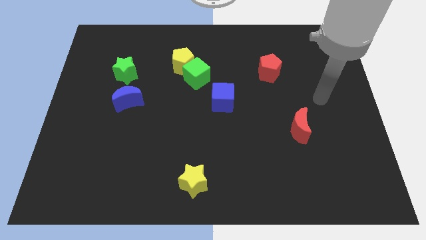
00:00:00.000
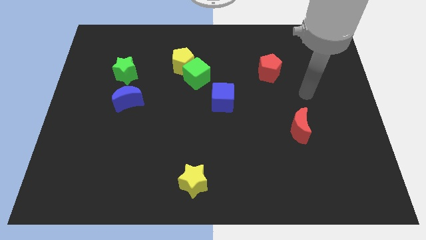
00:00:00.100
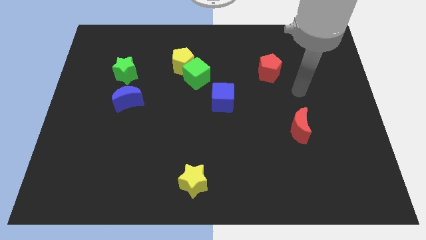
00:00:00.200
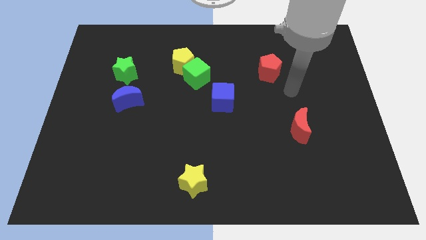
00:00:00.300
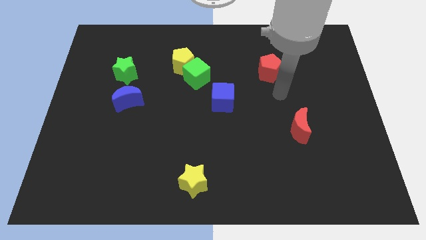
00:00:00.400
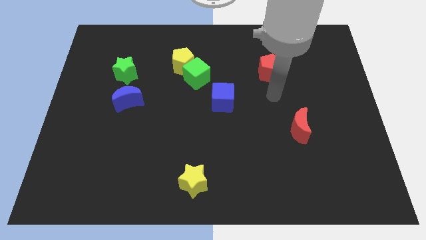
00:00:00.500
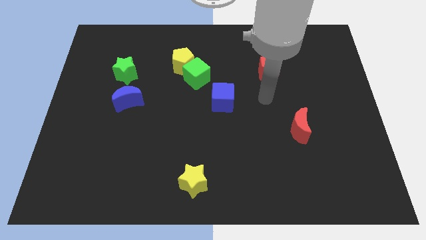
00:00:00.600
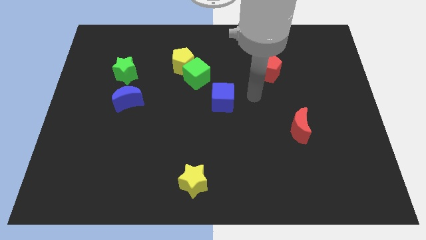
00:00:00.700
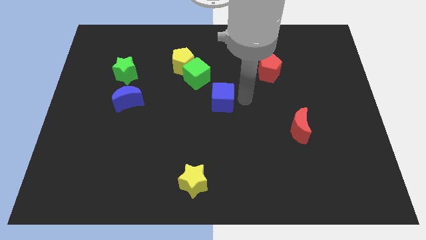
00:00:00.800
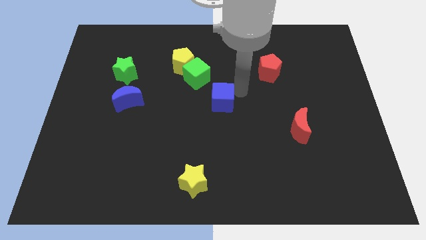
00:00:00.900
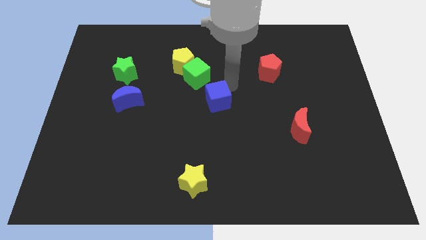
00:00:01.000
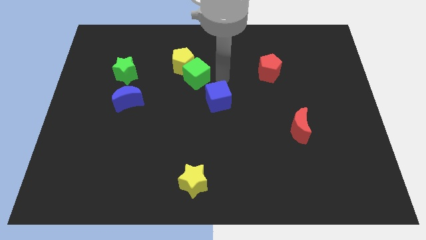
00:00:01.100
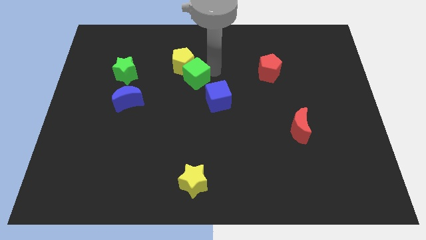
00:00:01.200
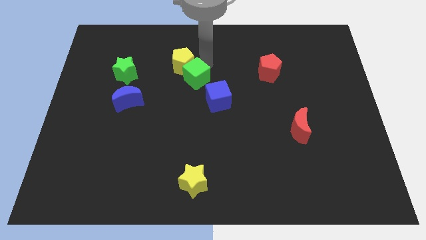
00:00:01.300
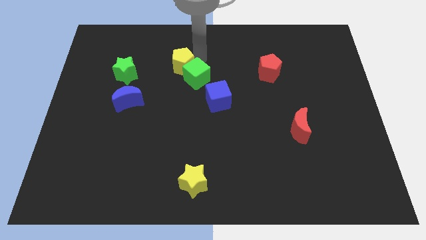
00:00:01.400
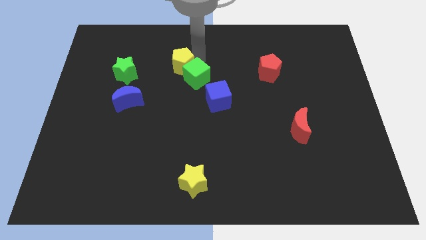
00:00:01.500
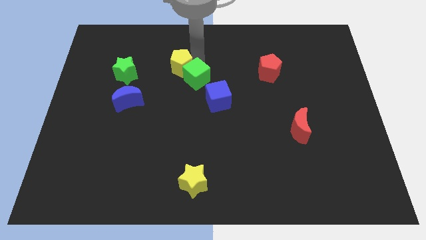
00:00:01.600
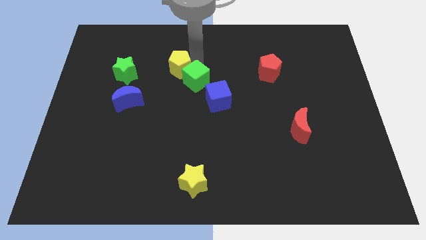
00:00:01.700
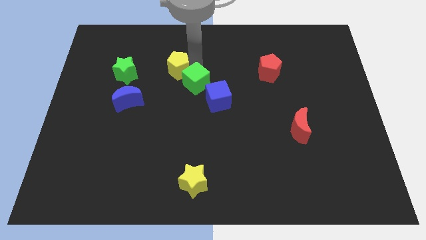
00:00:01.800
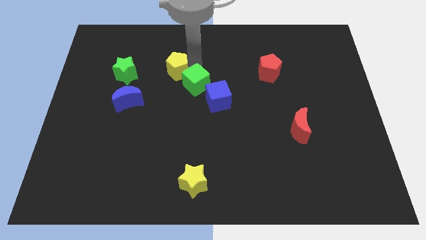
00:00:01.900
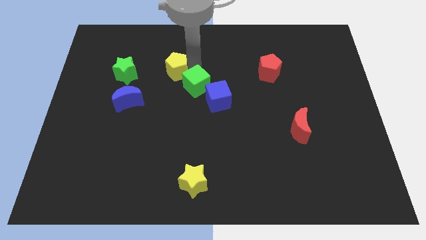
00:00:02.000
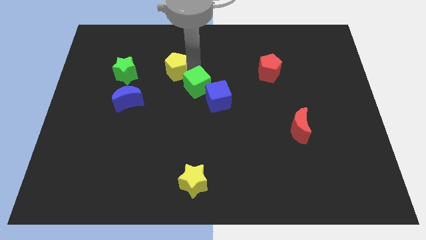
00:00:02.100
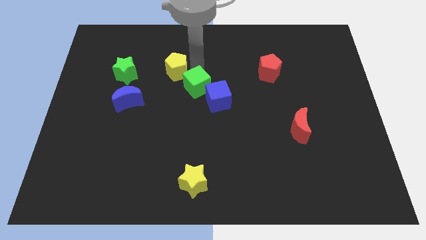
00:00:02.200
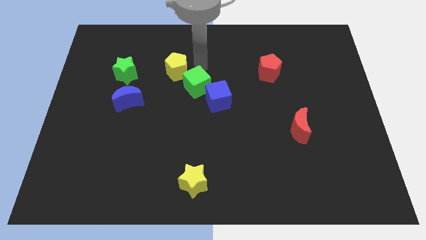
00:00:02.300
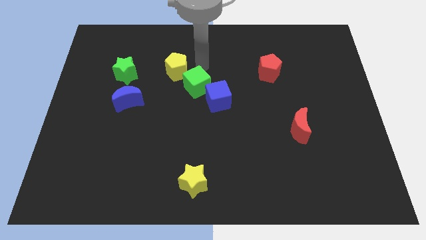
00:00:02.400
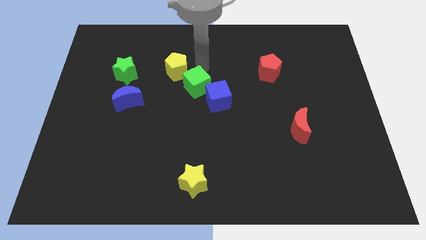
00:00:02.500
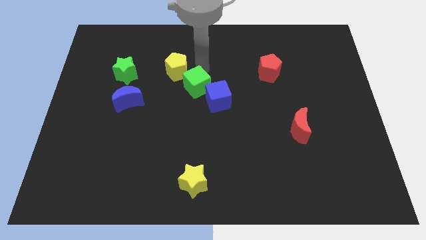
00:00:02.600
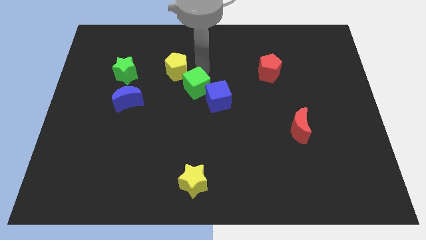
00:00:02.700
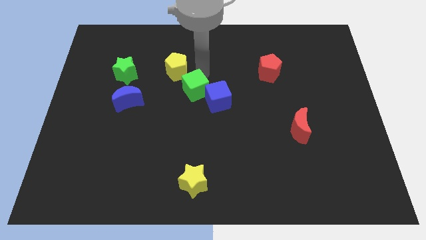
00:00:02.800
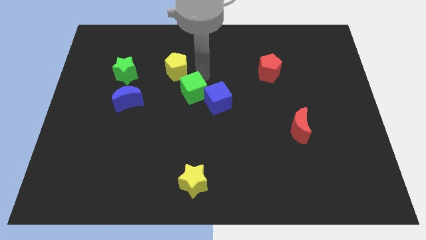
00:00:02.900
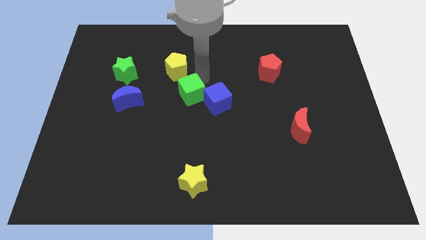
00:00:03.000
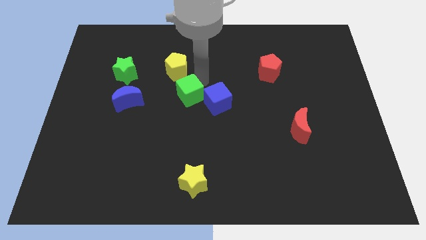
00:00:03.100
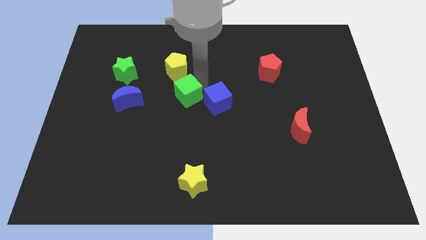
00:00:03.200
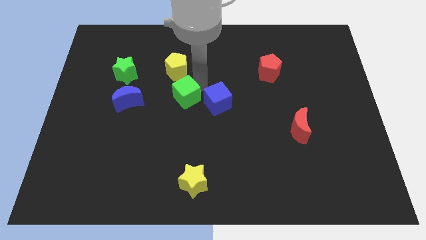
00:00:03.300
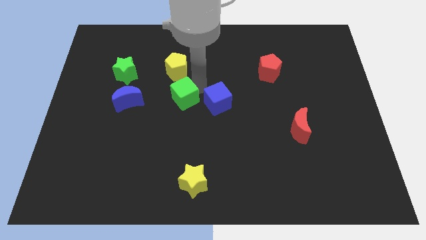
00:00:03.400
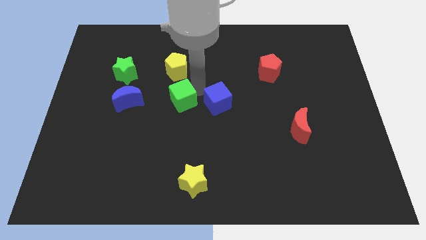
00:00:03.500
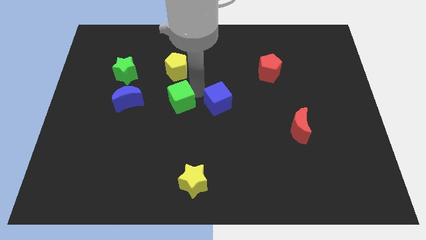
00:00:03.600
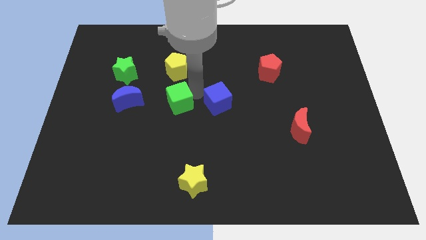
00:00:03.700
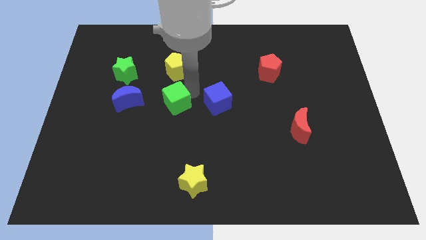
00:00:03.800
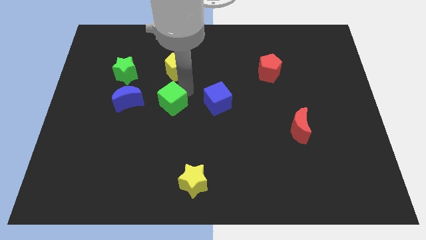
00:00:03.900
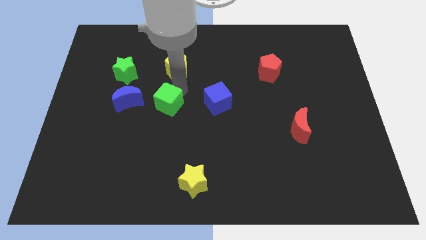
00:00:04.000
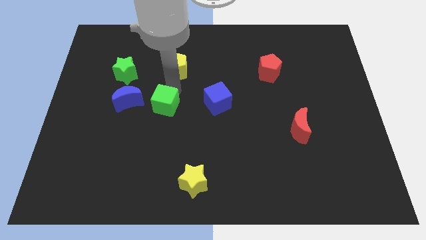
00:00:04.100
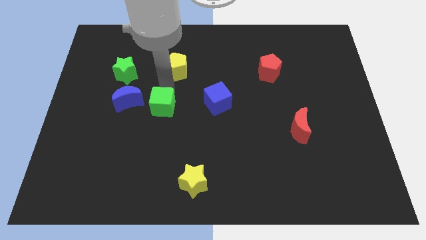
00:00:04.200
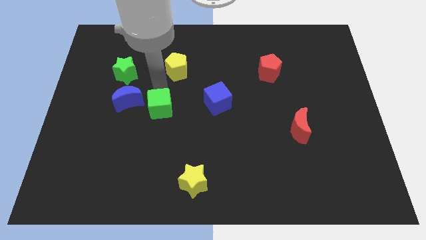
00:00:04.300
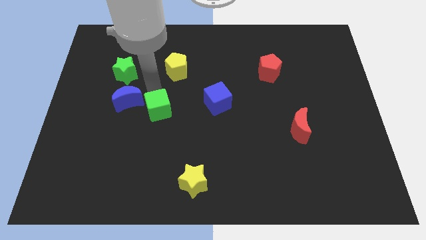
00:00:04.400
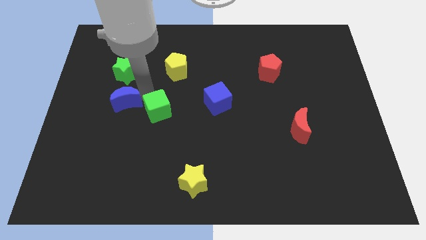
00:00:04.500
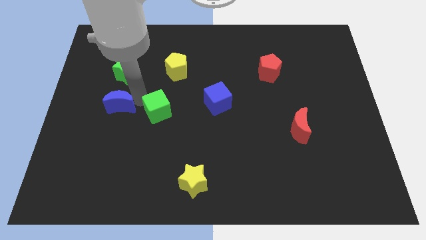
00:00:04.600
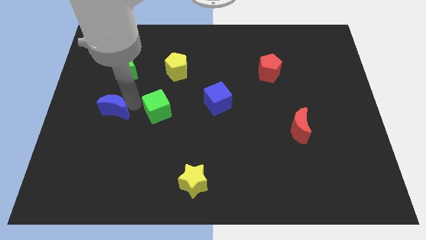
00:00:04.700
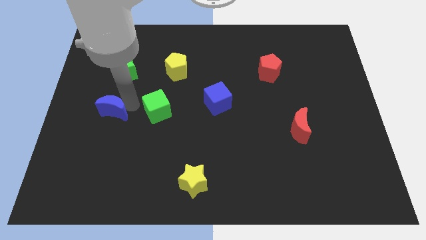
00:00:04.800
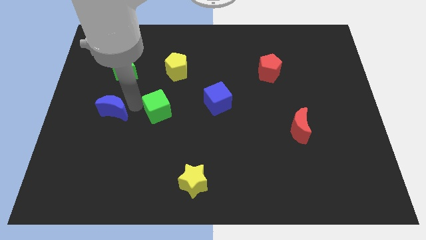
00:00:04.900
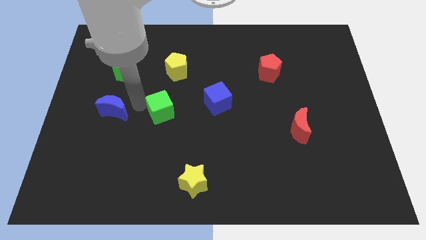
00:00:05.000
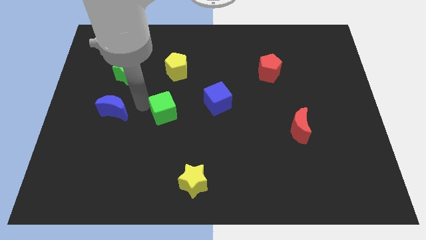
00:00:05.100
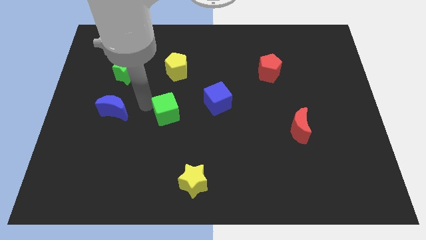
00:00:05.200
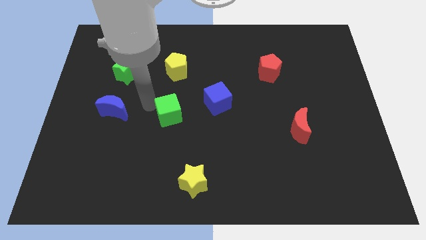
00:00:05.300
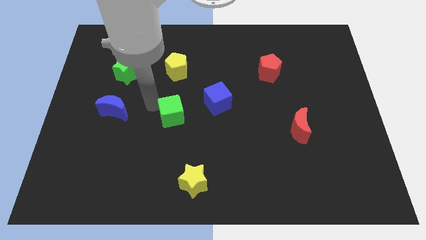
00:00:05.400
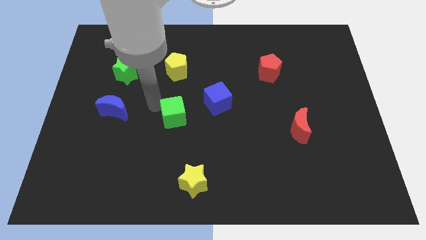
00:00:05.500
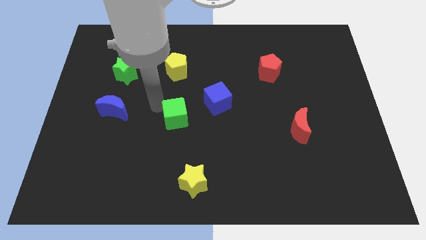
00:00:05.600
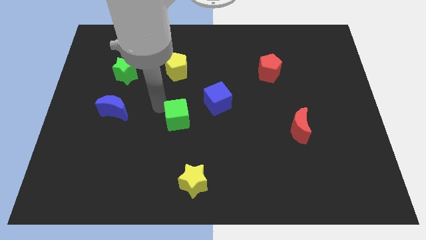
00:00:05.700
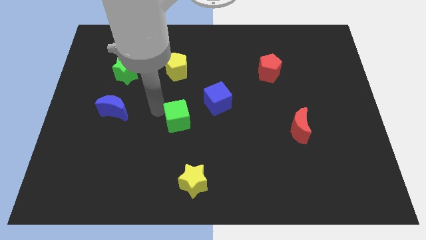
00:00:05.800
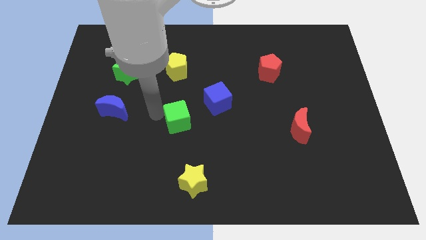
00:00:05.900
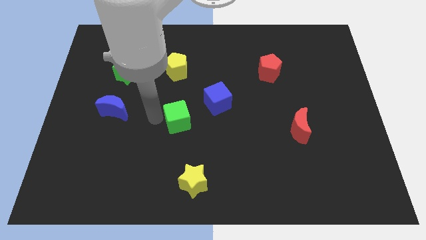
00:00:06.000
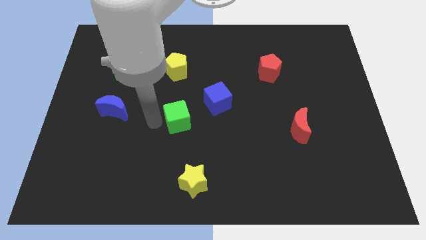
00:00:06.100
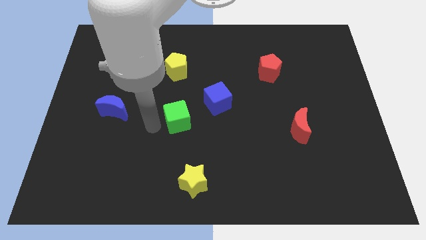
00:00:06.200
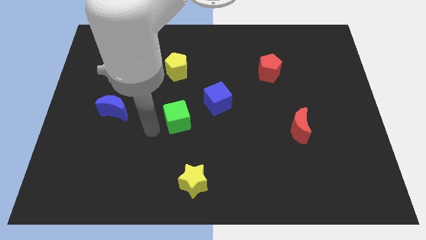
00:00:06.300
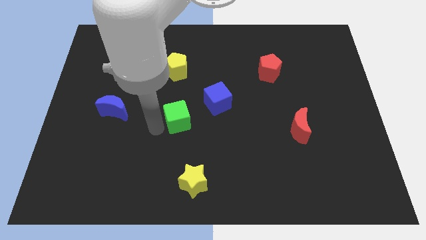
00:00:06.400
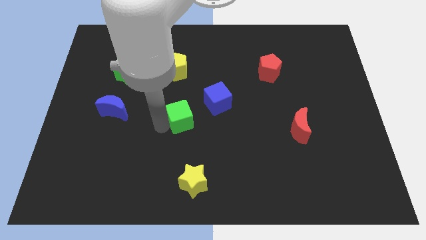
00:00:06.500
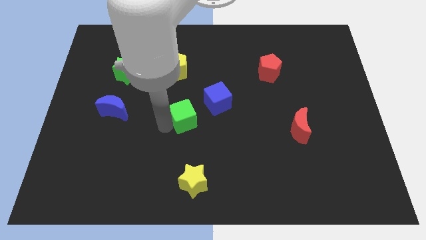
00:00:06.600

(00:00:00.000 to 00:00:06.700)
put the green cube to the top side of the yellow star
